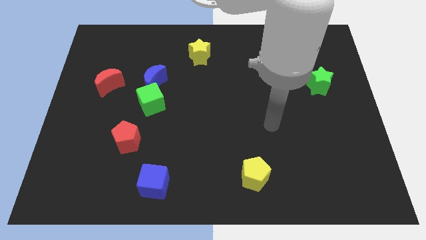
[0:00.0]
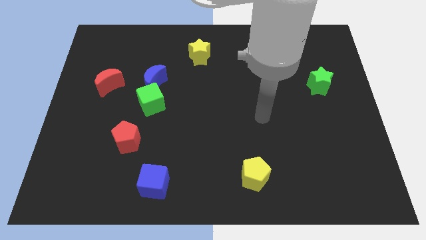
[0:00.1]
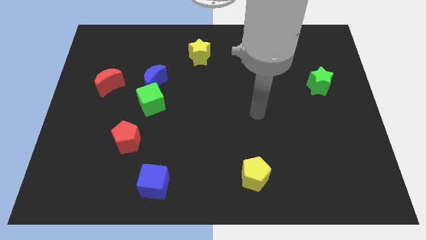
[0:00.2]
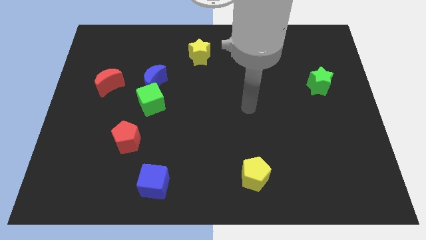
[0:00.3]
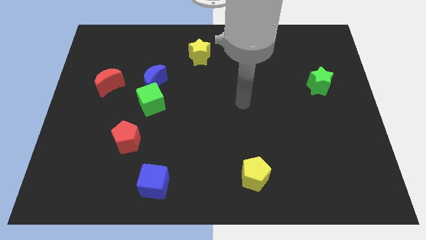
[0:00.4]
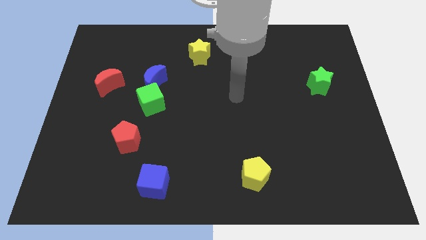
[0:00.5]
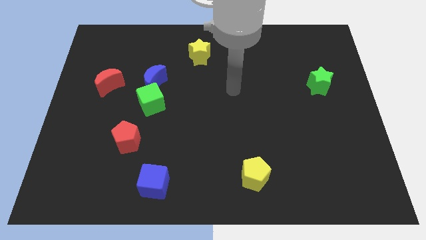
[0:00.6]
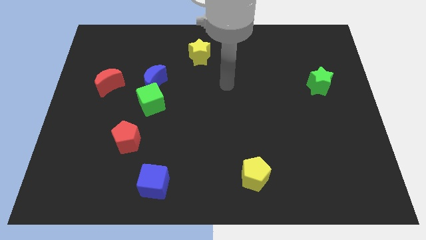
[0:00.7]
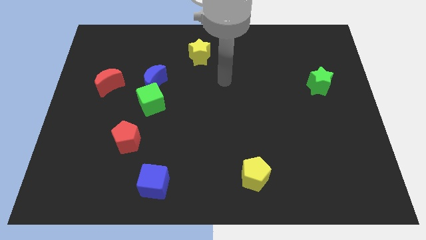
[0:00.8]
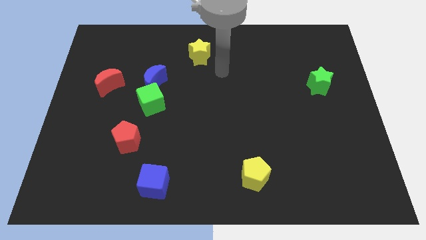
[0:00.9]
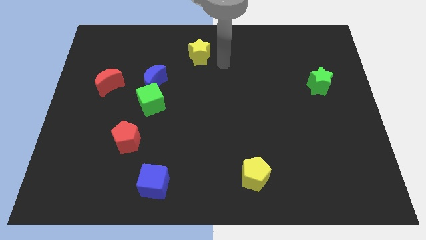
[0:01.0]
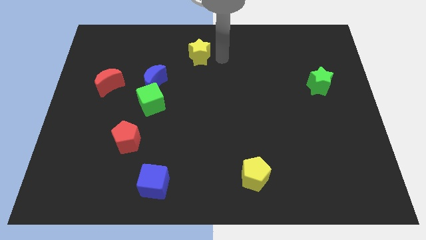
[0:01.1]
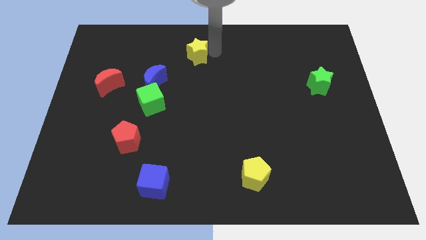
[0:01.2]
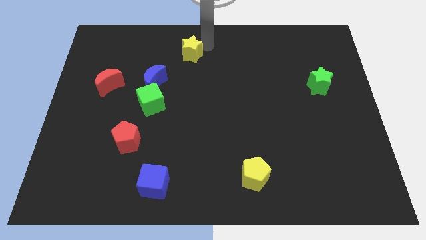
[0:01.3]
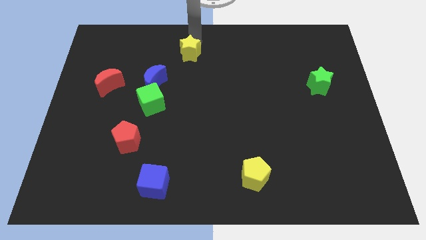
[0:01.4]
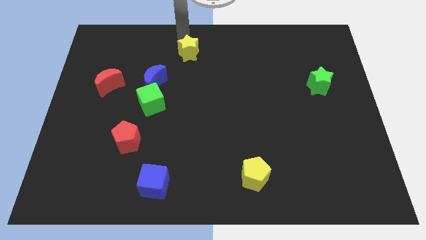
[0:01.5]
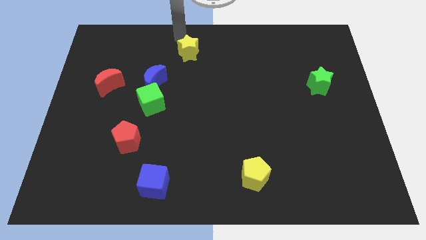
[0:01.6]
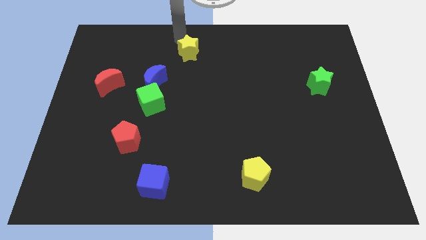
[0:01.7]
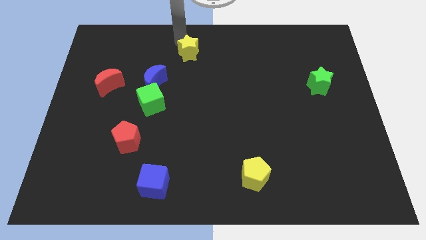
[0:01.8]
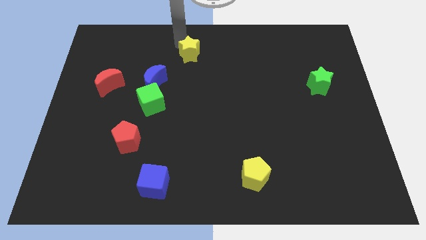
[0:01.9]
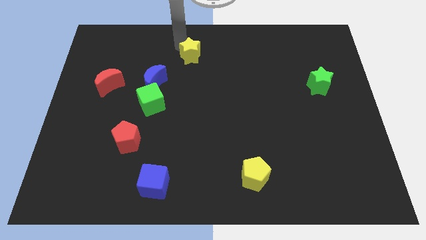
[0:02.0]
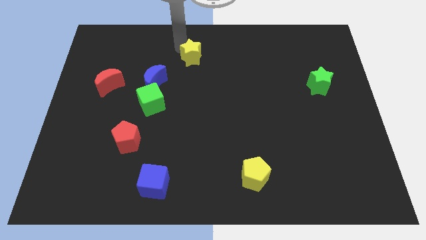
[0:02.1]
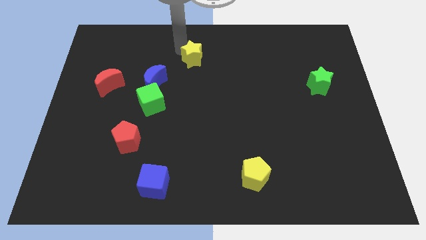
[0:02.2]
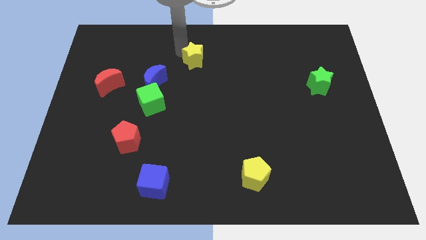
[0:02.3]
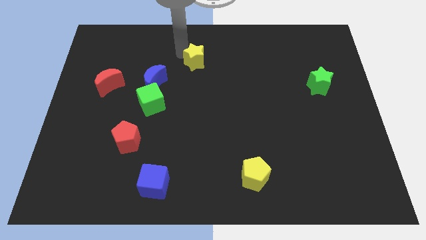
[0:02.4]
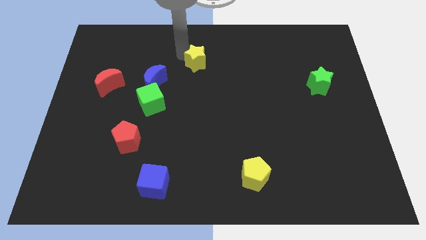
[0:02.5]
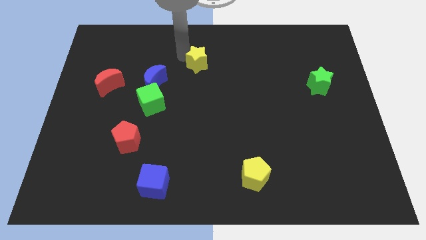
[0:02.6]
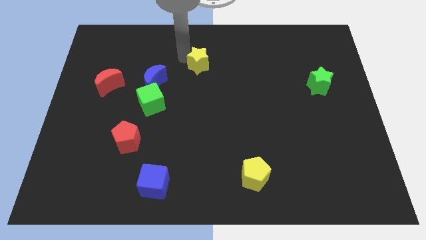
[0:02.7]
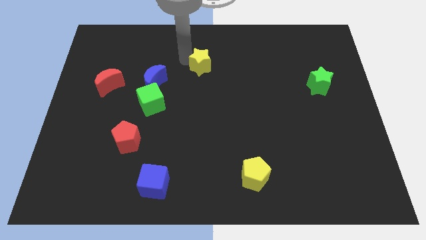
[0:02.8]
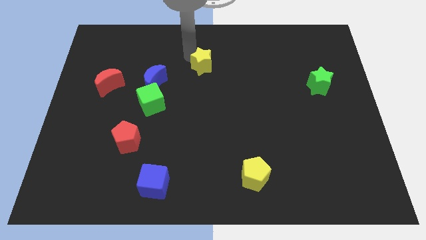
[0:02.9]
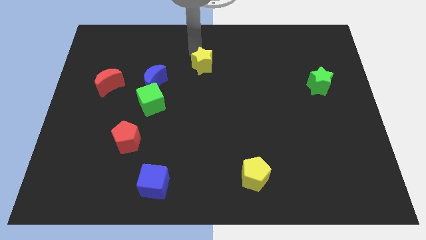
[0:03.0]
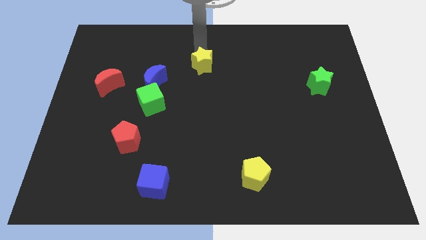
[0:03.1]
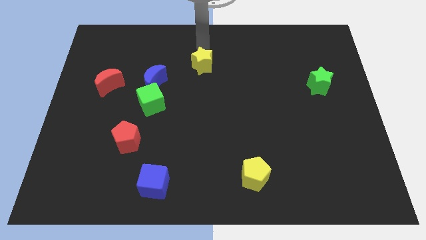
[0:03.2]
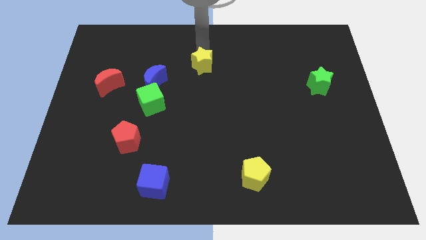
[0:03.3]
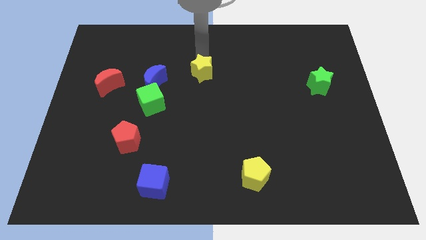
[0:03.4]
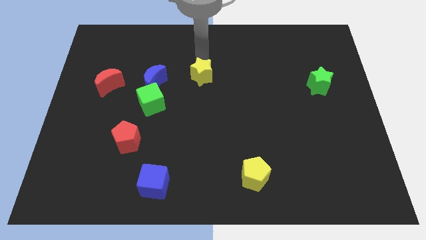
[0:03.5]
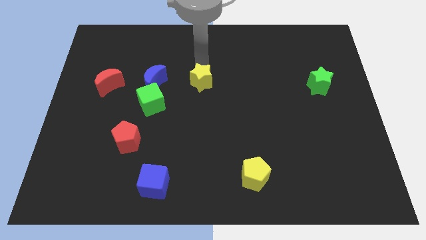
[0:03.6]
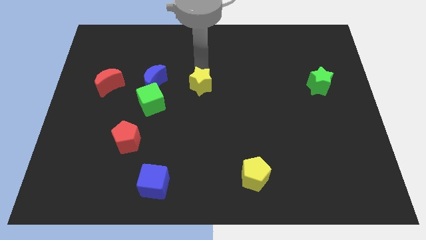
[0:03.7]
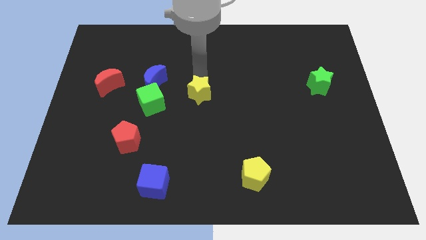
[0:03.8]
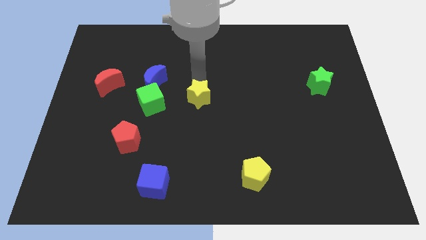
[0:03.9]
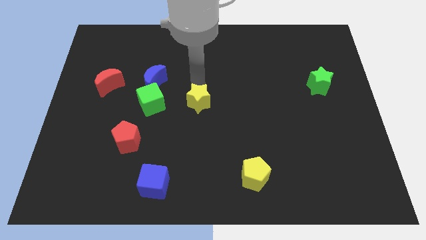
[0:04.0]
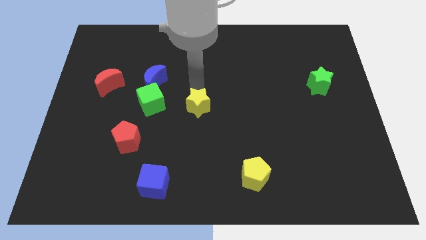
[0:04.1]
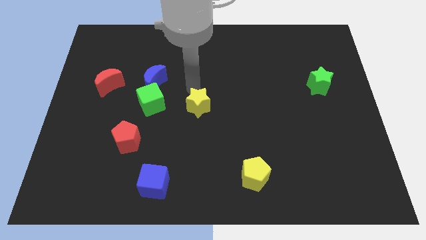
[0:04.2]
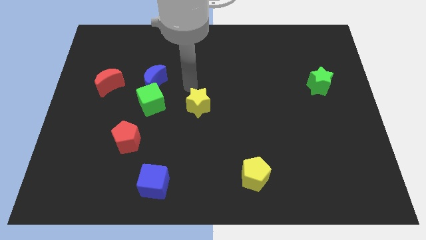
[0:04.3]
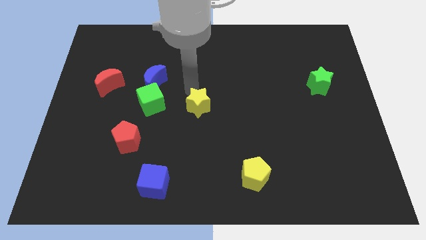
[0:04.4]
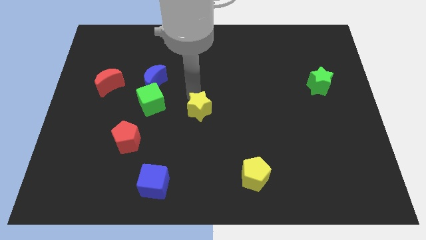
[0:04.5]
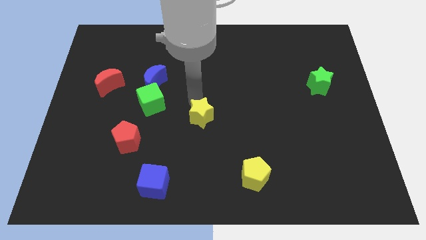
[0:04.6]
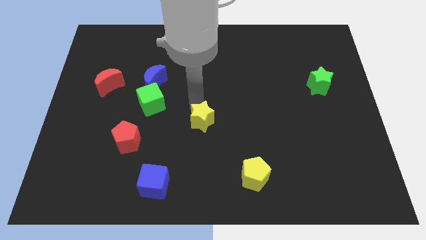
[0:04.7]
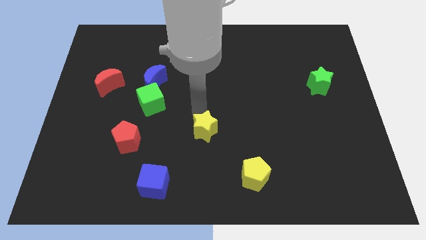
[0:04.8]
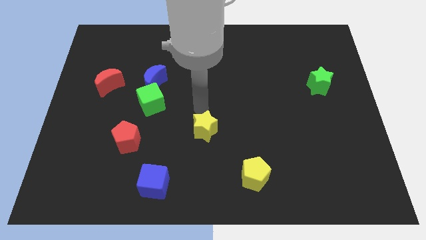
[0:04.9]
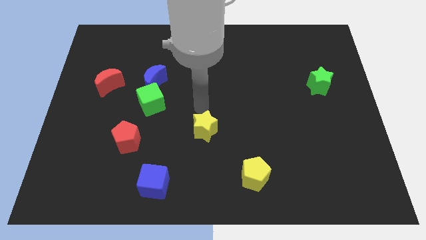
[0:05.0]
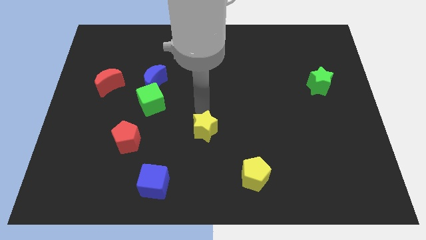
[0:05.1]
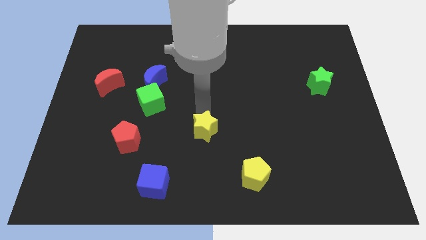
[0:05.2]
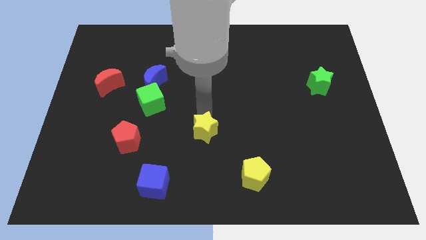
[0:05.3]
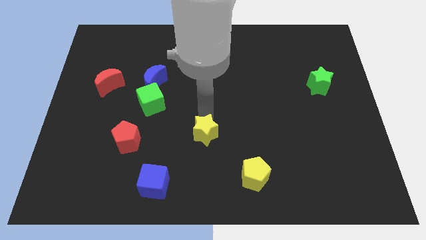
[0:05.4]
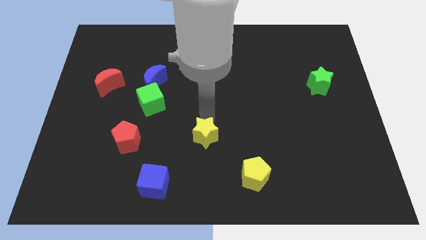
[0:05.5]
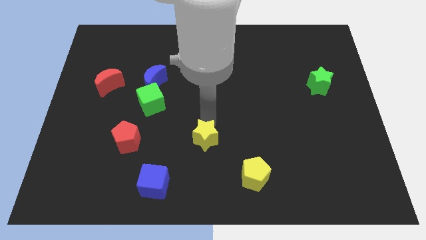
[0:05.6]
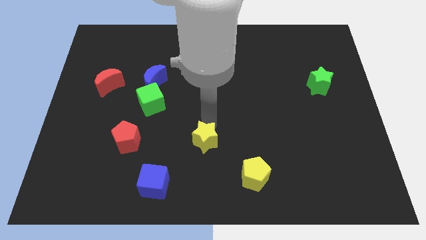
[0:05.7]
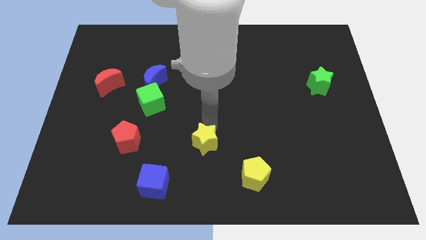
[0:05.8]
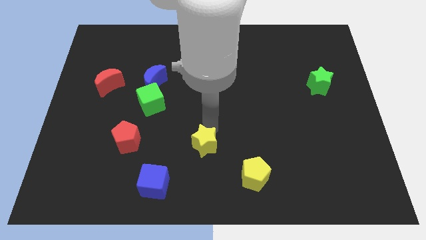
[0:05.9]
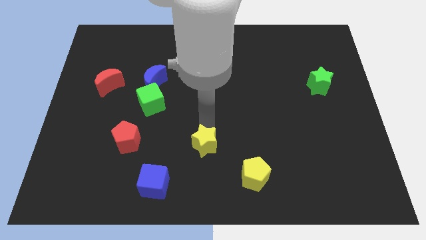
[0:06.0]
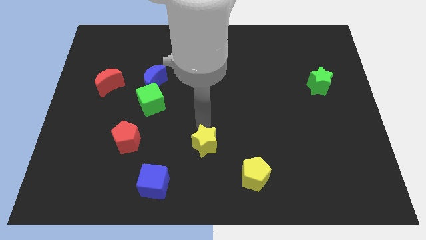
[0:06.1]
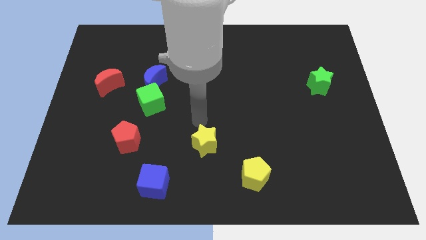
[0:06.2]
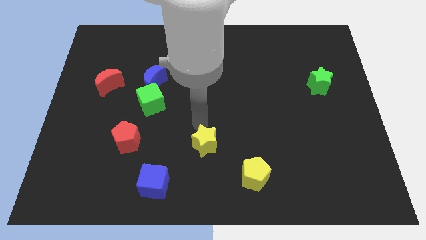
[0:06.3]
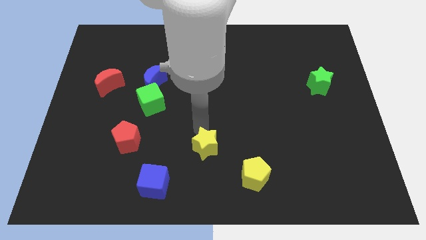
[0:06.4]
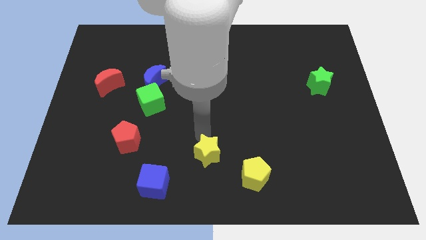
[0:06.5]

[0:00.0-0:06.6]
put the yellow star to the bottom side
